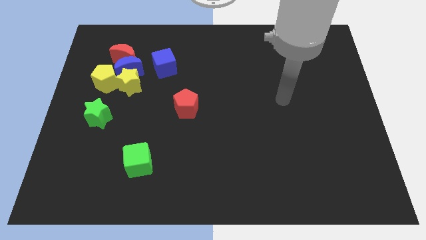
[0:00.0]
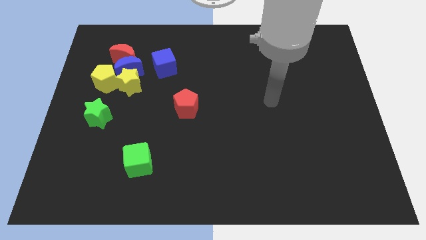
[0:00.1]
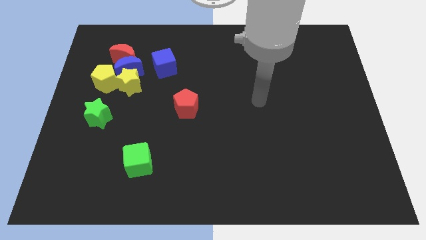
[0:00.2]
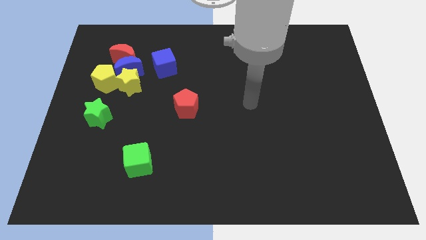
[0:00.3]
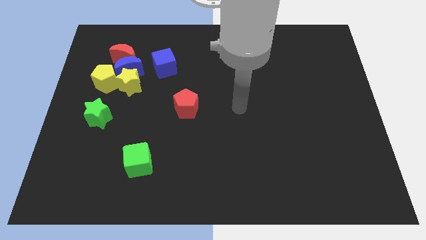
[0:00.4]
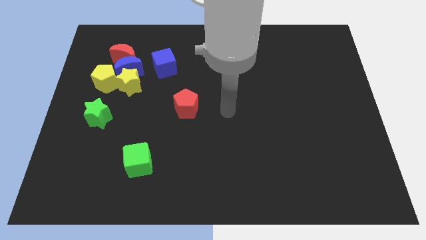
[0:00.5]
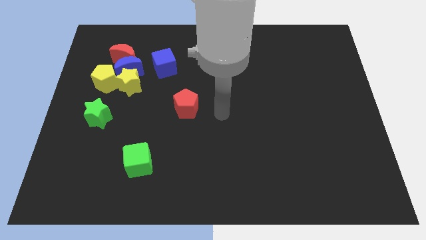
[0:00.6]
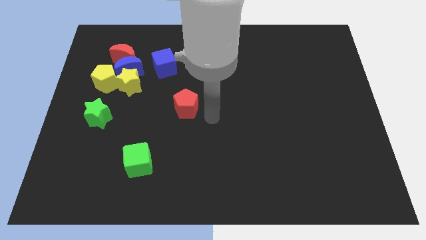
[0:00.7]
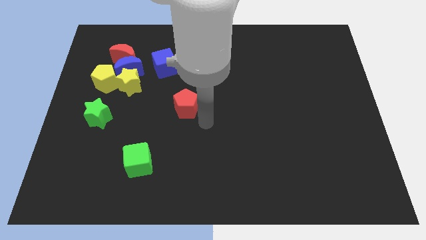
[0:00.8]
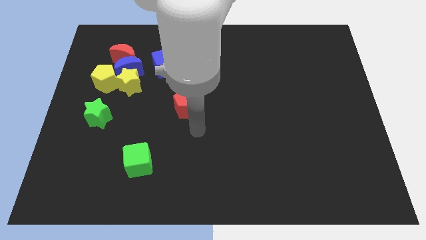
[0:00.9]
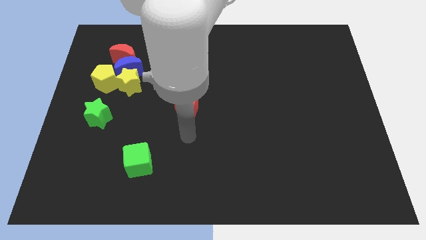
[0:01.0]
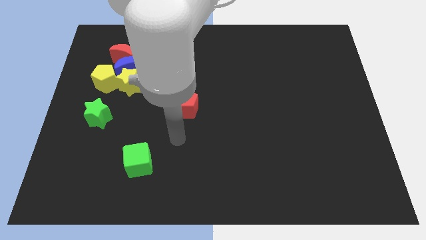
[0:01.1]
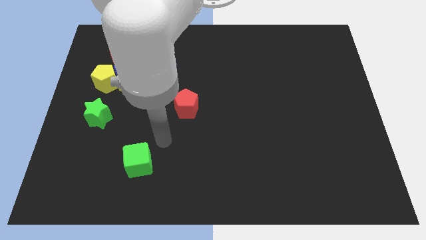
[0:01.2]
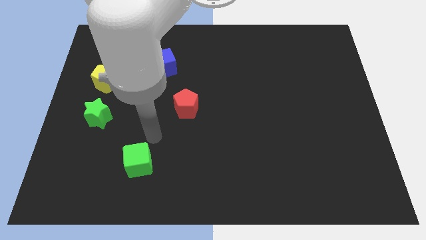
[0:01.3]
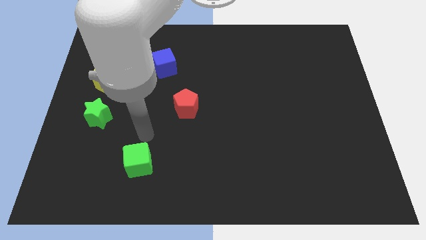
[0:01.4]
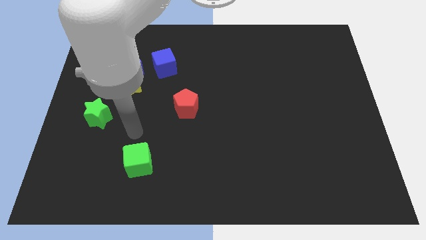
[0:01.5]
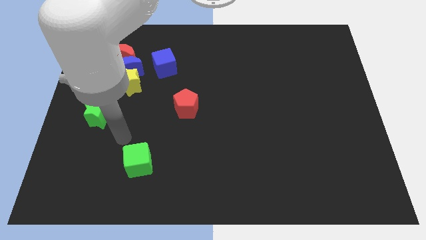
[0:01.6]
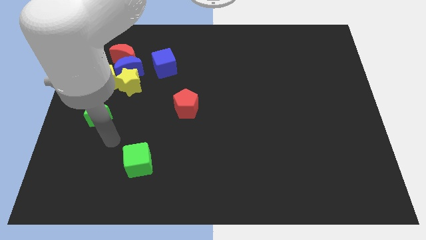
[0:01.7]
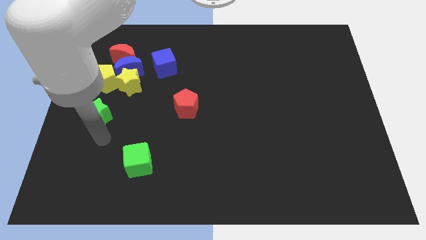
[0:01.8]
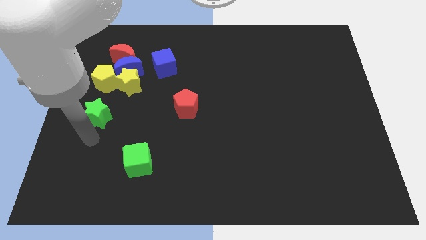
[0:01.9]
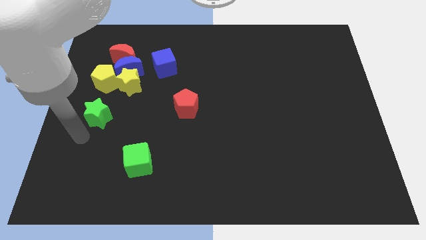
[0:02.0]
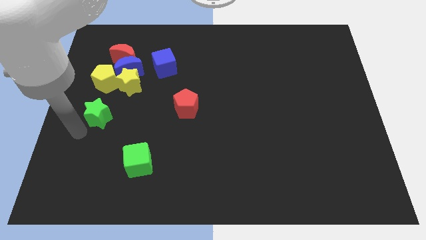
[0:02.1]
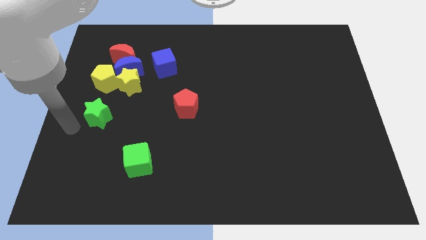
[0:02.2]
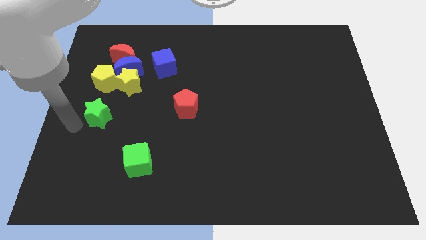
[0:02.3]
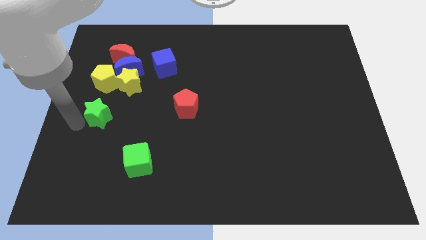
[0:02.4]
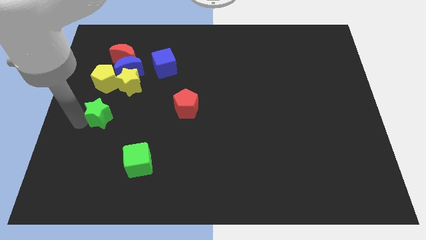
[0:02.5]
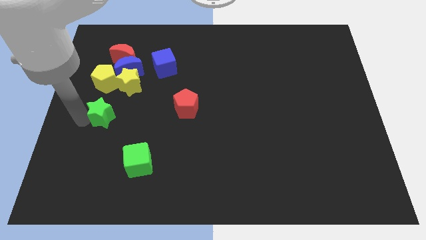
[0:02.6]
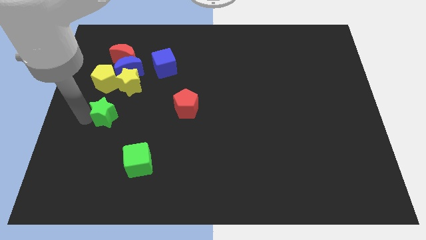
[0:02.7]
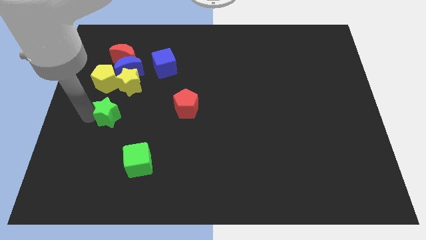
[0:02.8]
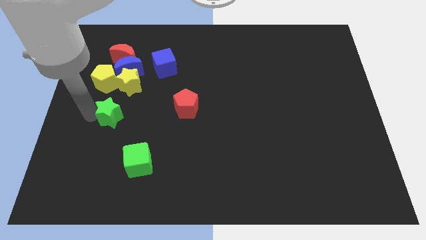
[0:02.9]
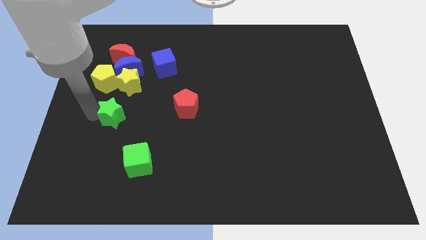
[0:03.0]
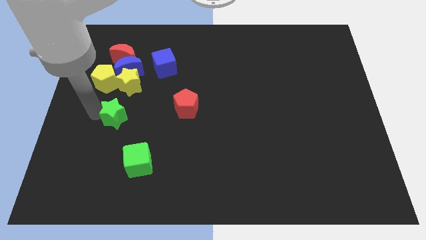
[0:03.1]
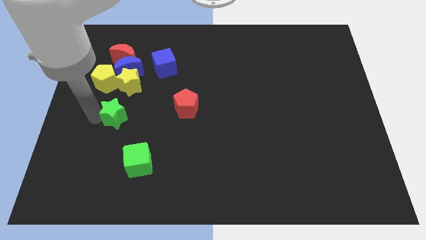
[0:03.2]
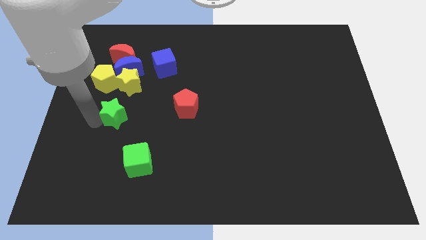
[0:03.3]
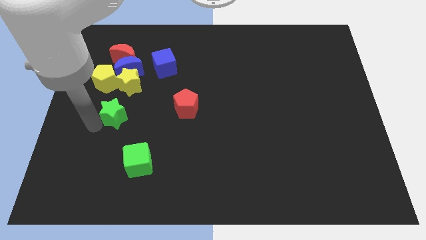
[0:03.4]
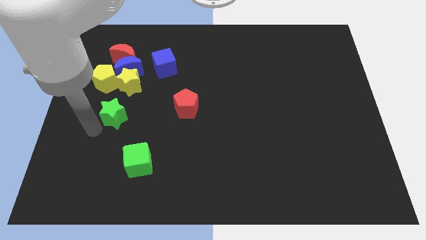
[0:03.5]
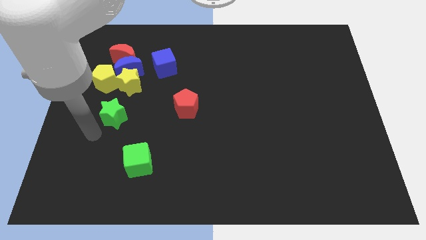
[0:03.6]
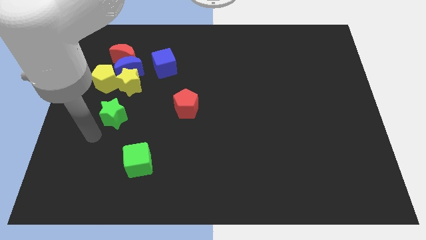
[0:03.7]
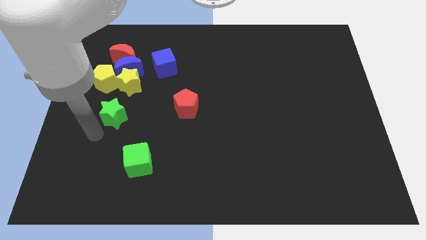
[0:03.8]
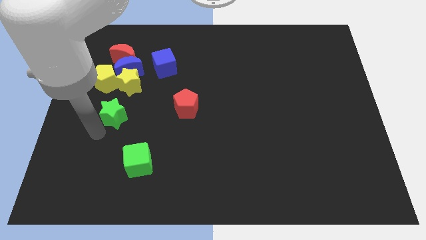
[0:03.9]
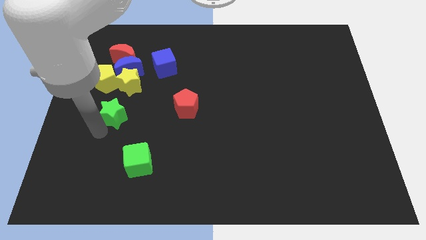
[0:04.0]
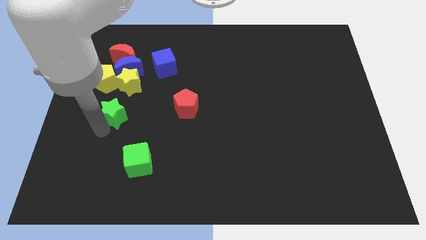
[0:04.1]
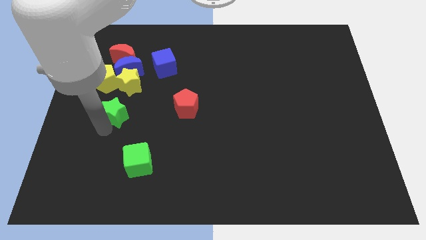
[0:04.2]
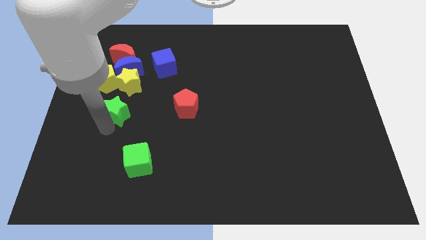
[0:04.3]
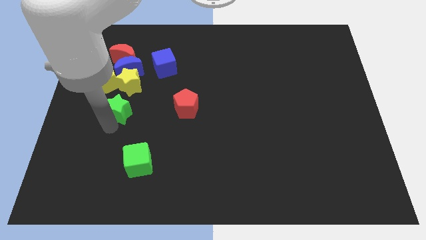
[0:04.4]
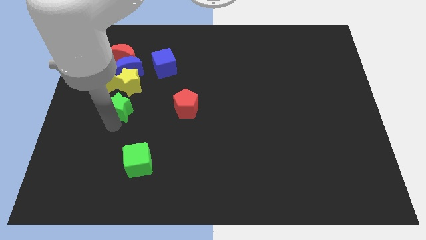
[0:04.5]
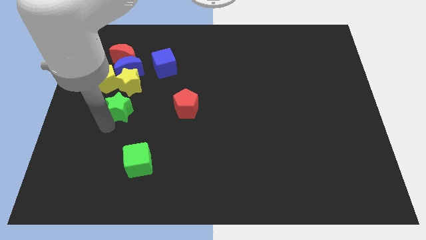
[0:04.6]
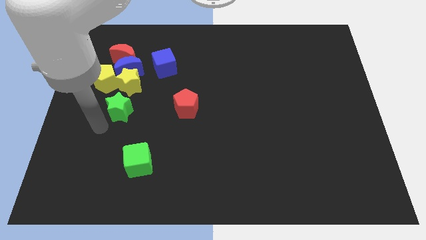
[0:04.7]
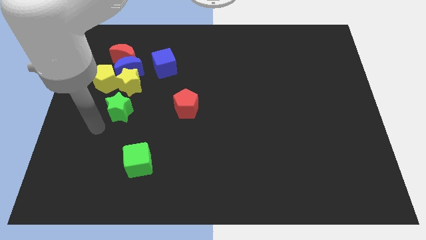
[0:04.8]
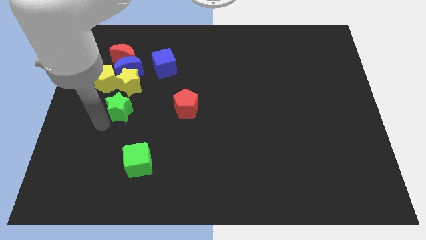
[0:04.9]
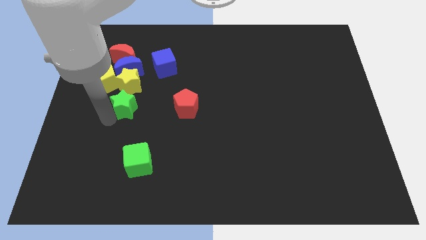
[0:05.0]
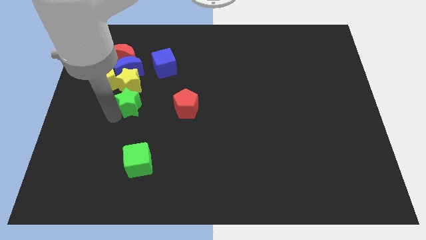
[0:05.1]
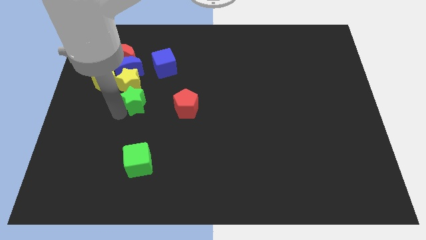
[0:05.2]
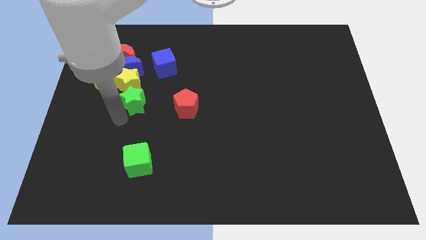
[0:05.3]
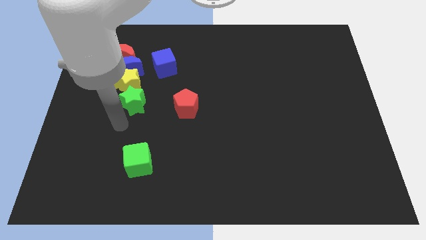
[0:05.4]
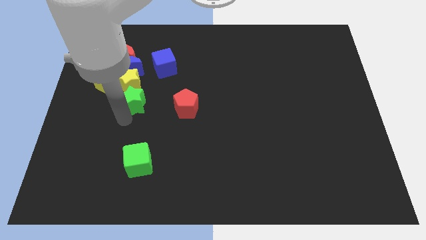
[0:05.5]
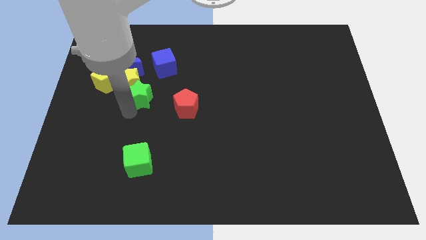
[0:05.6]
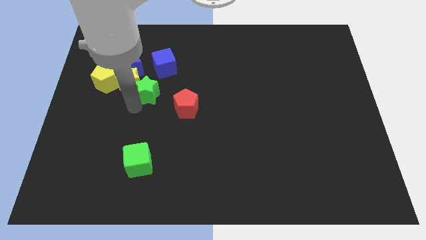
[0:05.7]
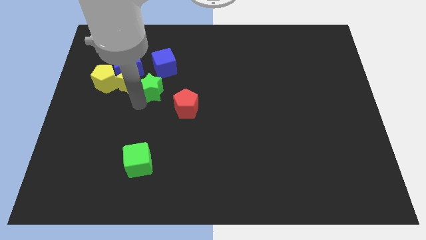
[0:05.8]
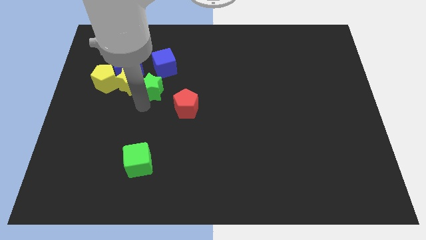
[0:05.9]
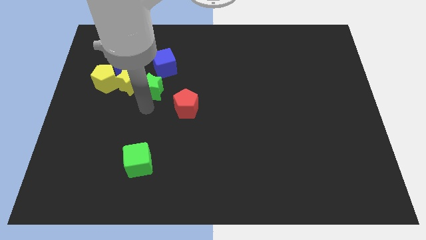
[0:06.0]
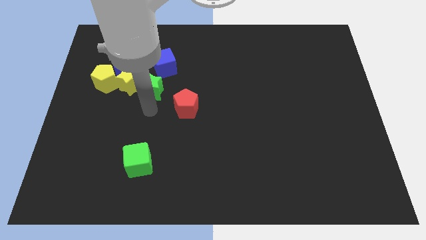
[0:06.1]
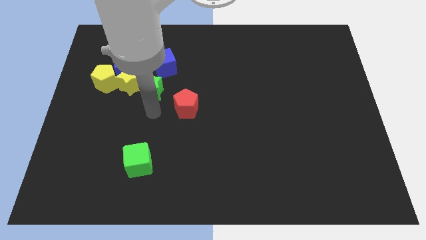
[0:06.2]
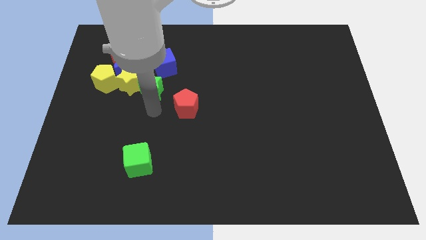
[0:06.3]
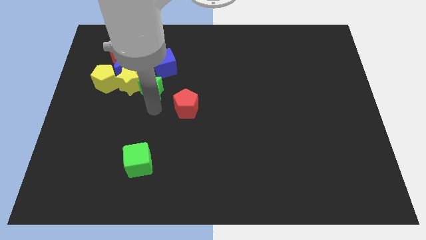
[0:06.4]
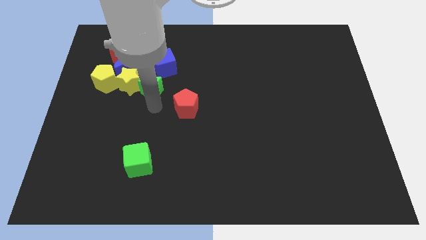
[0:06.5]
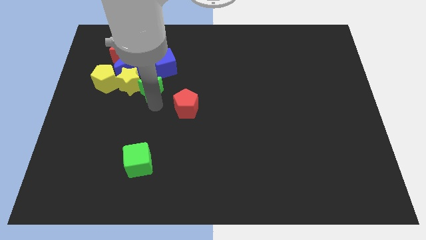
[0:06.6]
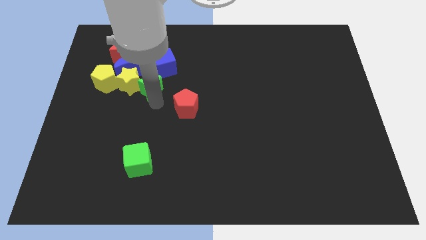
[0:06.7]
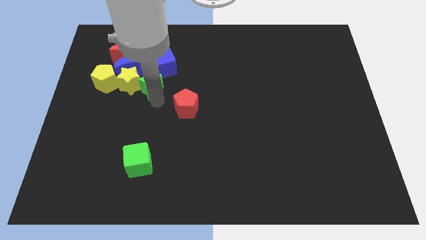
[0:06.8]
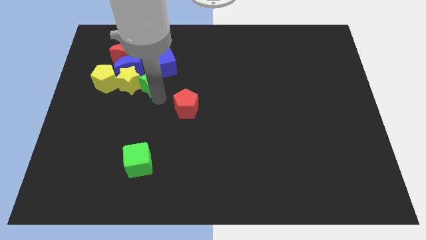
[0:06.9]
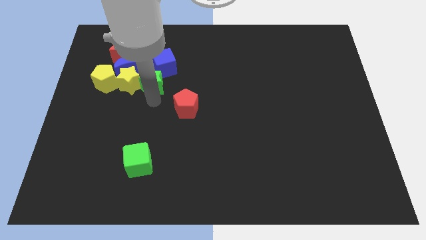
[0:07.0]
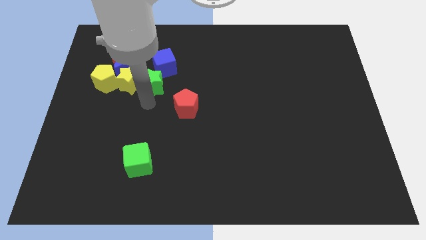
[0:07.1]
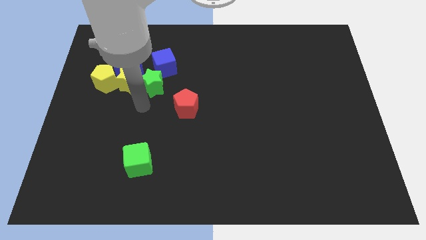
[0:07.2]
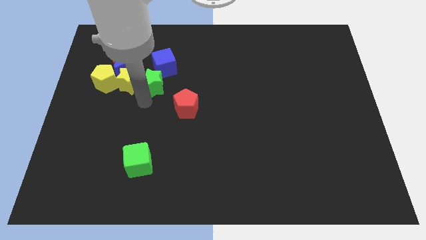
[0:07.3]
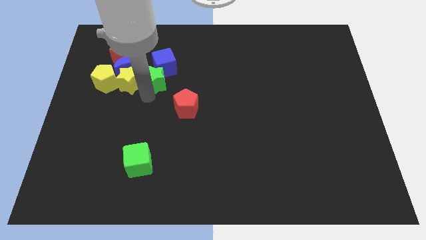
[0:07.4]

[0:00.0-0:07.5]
slide the green star towards the blue cube
